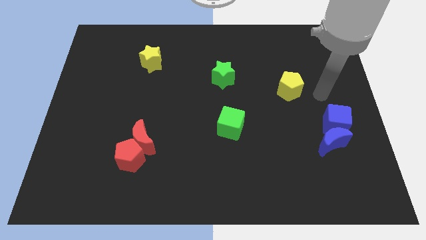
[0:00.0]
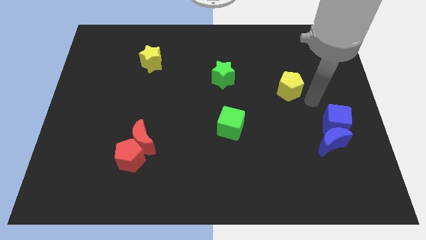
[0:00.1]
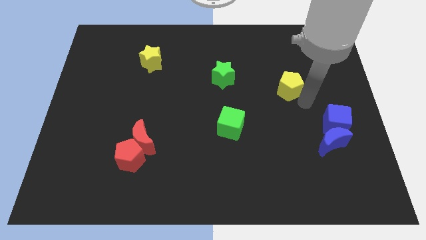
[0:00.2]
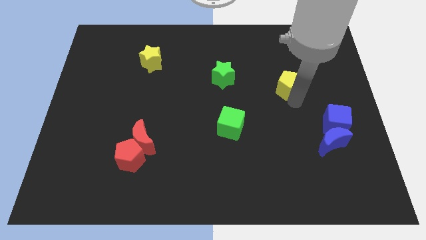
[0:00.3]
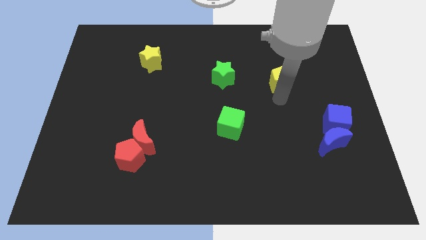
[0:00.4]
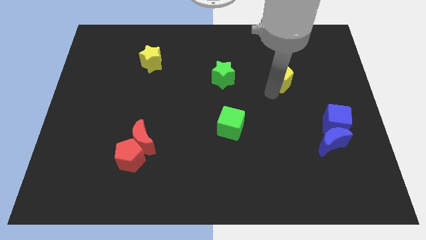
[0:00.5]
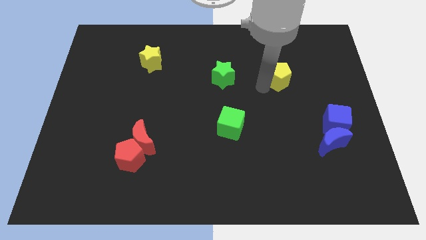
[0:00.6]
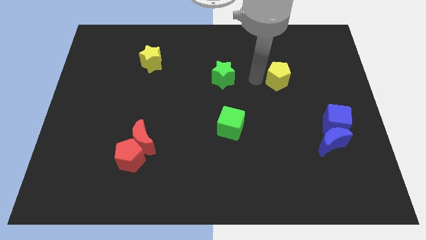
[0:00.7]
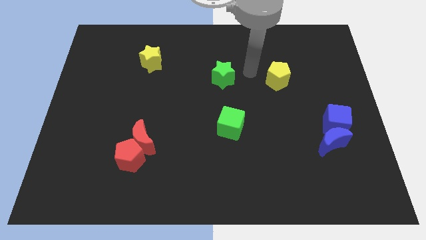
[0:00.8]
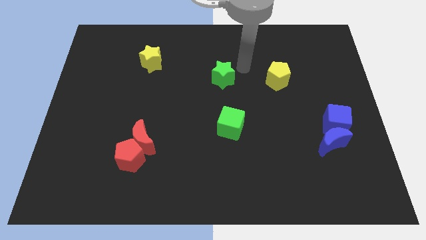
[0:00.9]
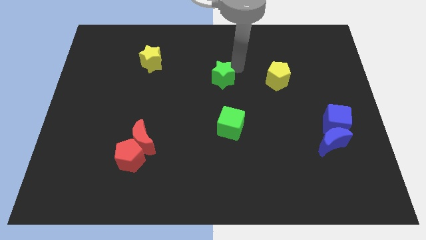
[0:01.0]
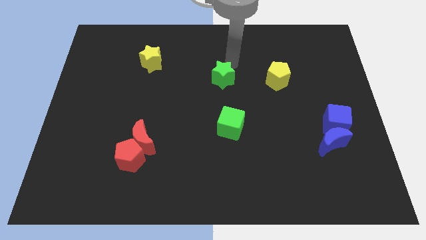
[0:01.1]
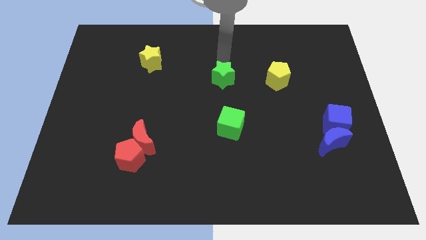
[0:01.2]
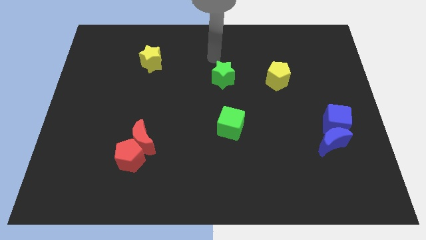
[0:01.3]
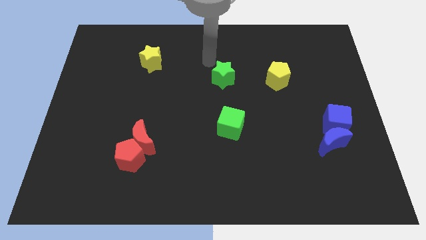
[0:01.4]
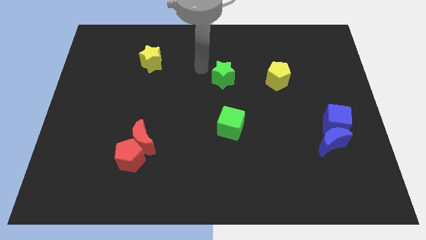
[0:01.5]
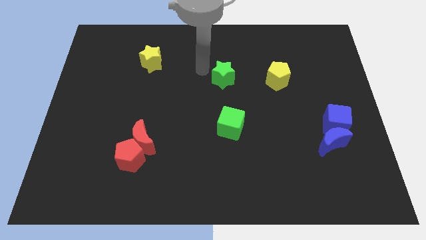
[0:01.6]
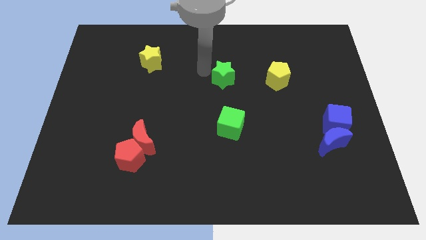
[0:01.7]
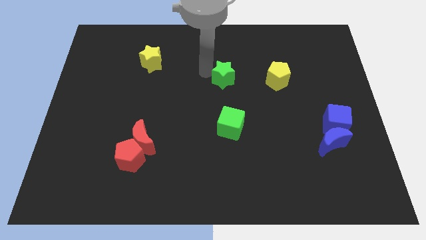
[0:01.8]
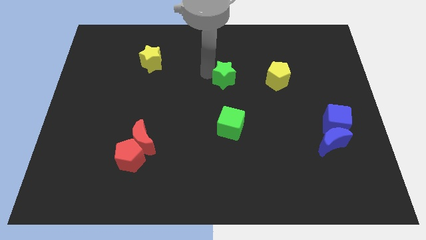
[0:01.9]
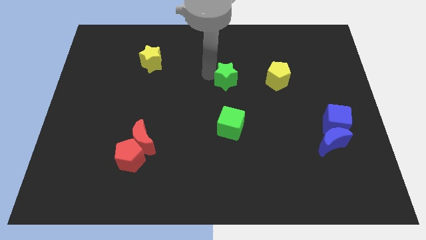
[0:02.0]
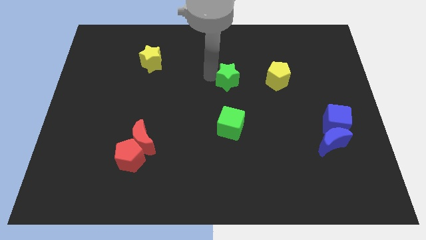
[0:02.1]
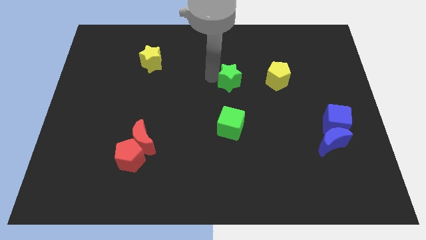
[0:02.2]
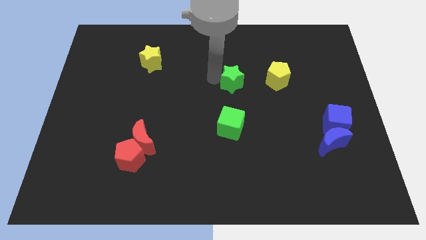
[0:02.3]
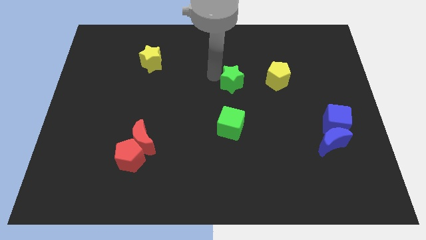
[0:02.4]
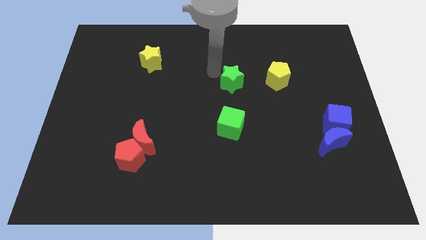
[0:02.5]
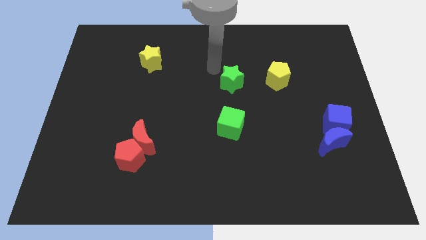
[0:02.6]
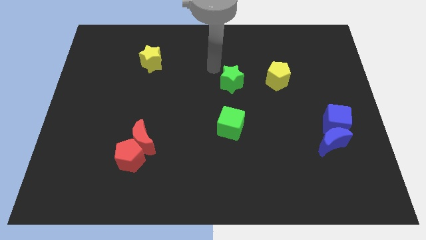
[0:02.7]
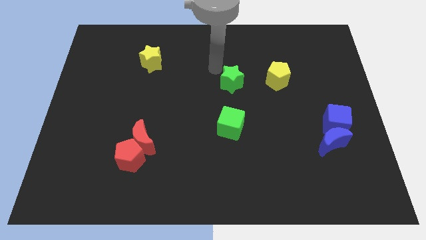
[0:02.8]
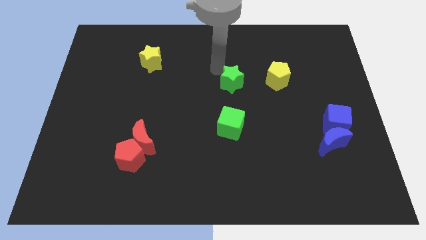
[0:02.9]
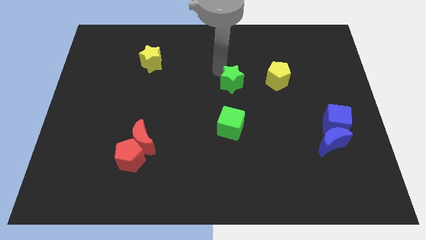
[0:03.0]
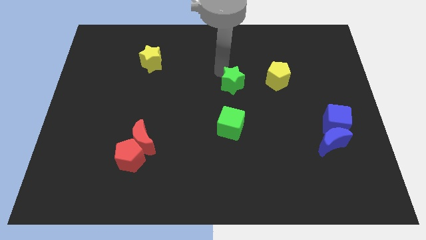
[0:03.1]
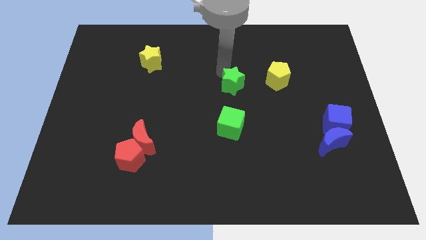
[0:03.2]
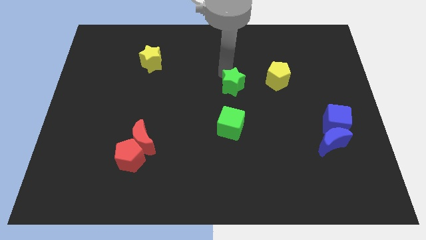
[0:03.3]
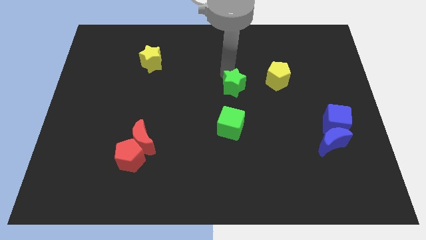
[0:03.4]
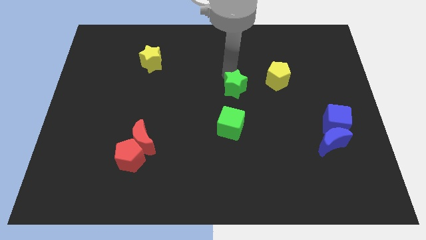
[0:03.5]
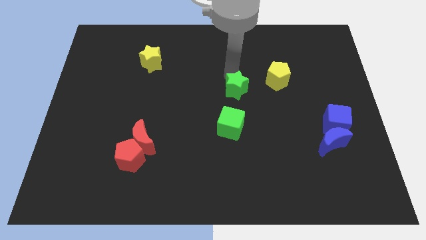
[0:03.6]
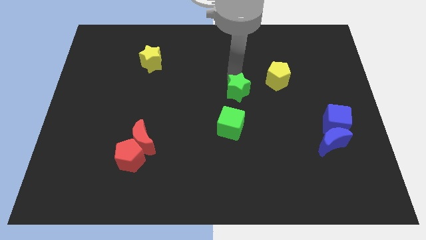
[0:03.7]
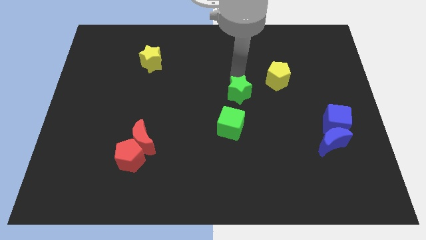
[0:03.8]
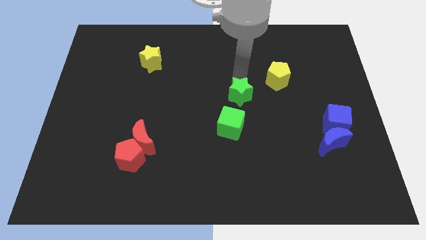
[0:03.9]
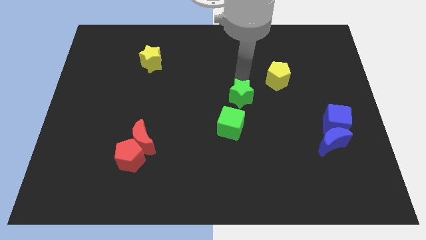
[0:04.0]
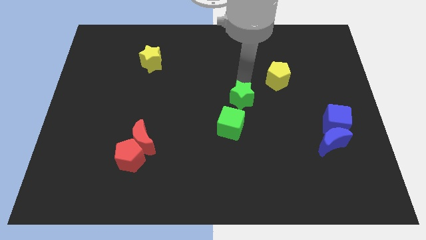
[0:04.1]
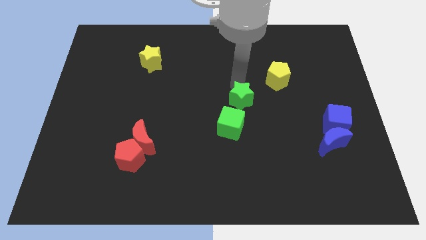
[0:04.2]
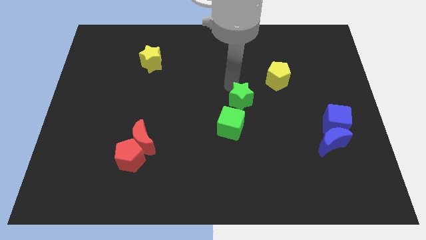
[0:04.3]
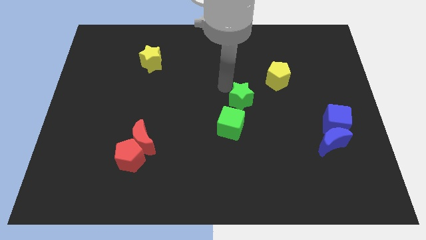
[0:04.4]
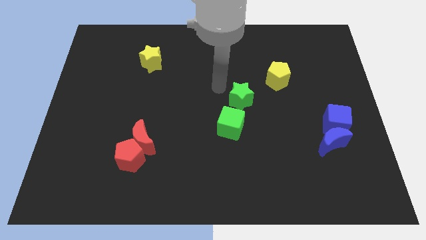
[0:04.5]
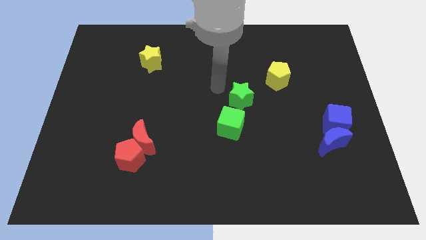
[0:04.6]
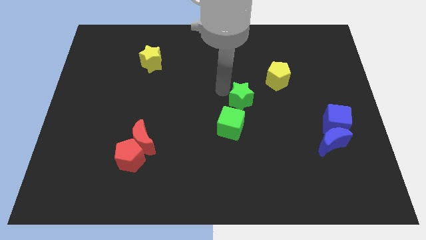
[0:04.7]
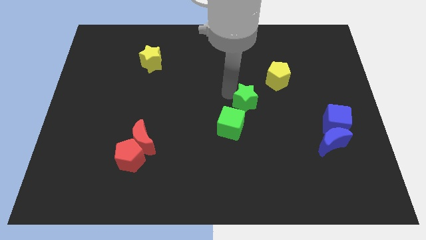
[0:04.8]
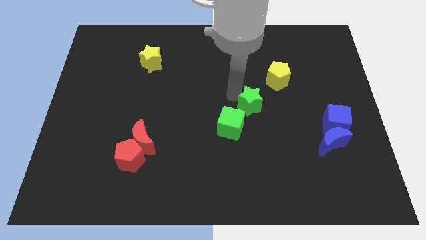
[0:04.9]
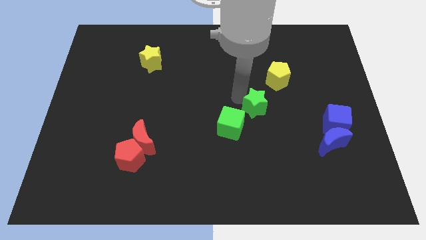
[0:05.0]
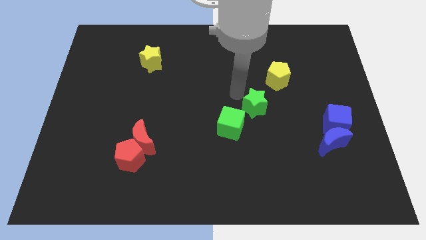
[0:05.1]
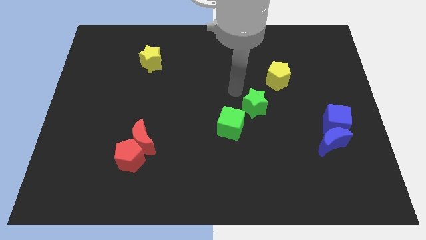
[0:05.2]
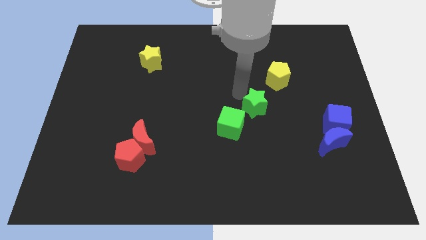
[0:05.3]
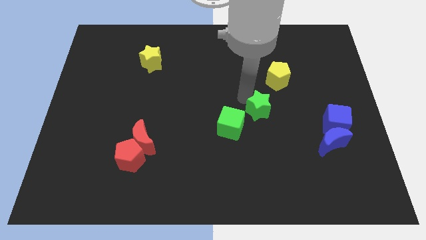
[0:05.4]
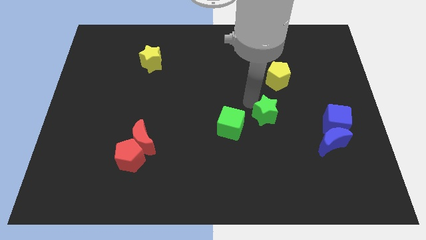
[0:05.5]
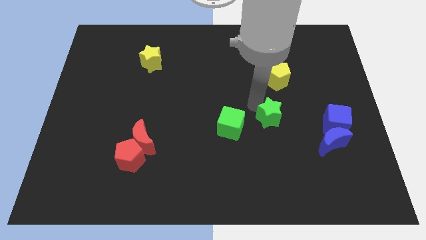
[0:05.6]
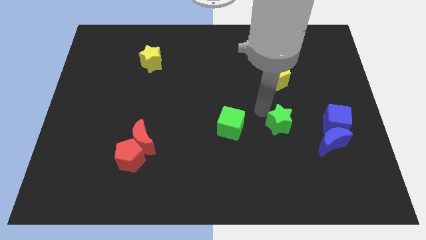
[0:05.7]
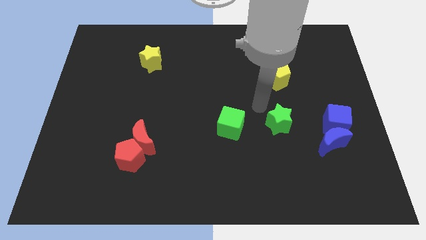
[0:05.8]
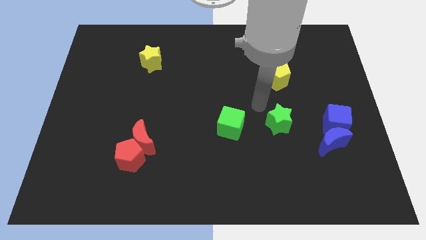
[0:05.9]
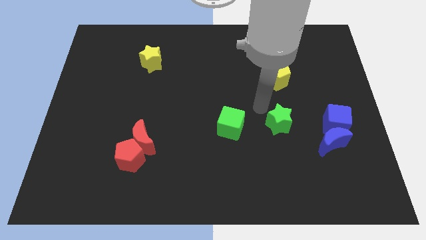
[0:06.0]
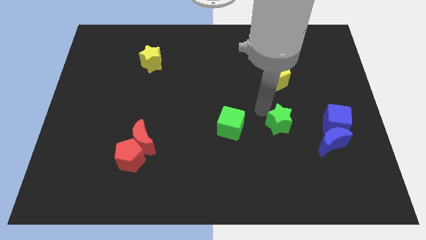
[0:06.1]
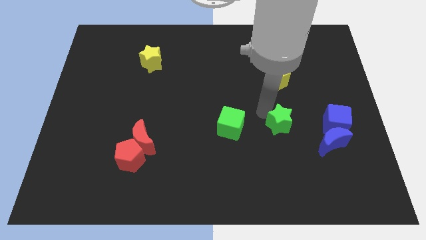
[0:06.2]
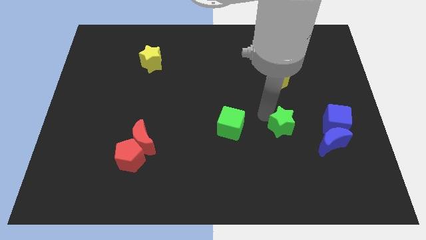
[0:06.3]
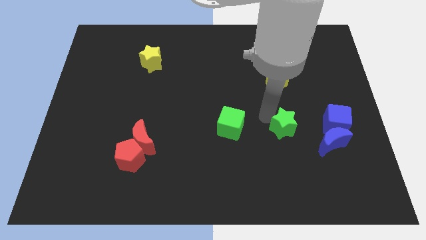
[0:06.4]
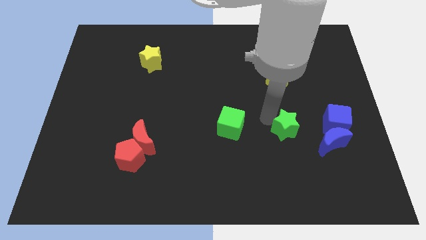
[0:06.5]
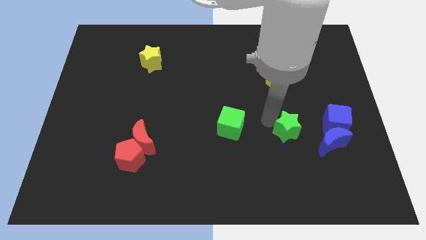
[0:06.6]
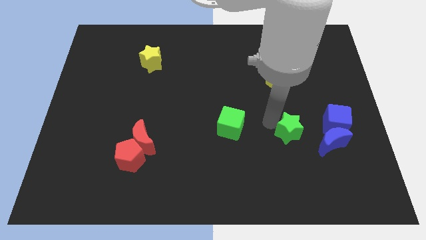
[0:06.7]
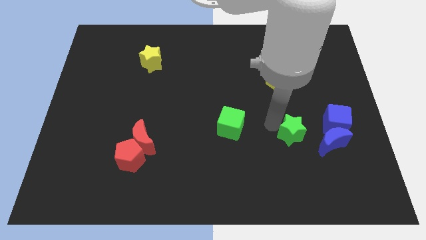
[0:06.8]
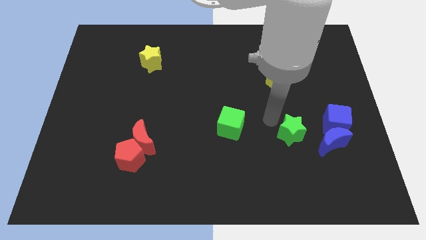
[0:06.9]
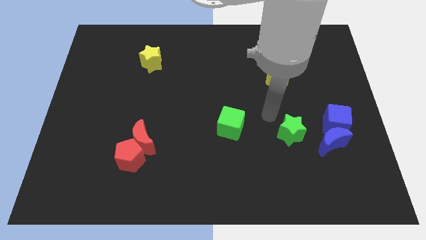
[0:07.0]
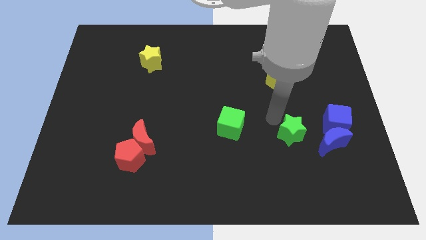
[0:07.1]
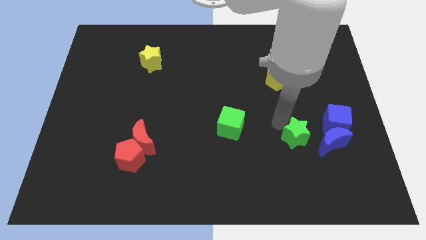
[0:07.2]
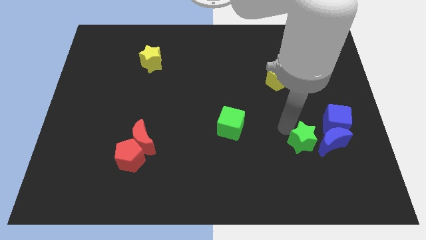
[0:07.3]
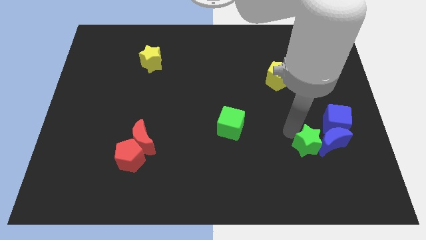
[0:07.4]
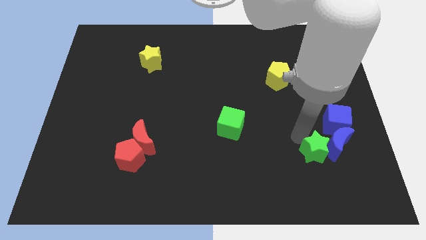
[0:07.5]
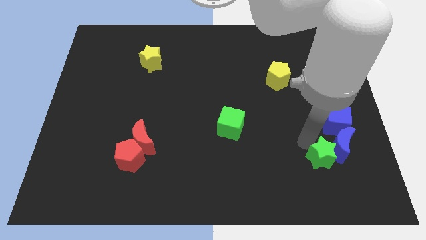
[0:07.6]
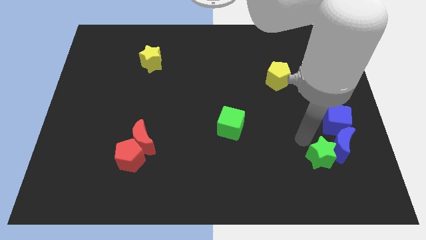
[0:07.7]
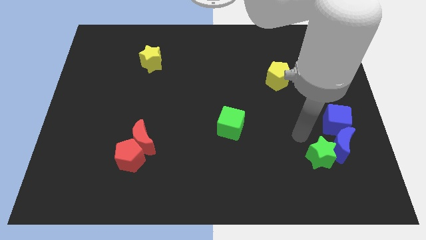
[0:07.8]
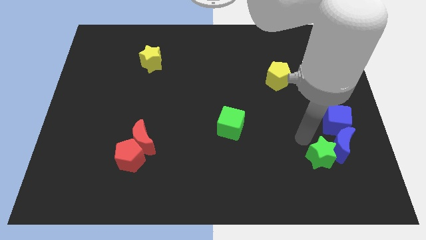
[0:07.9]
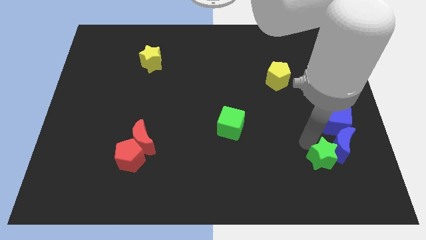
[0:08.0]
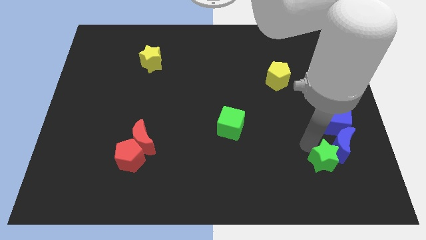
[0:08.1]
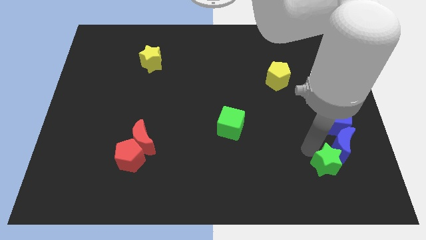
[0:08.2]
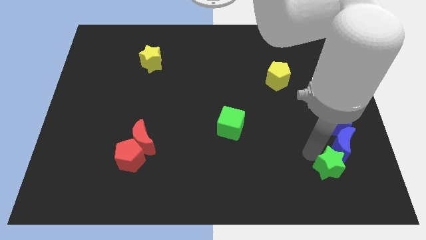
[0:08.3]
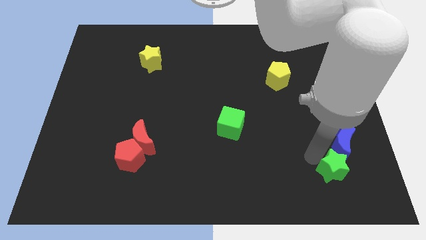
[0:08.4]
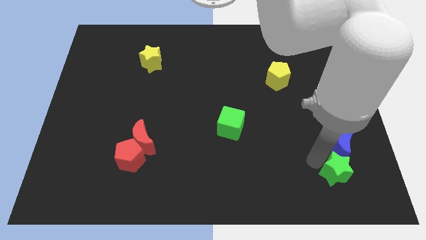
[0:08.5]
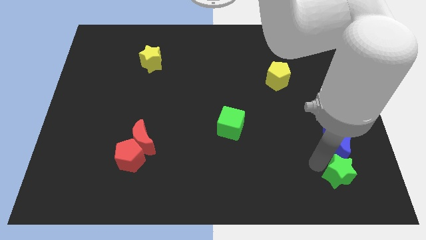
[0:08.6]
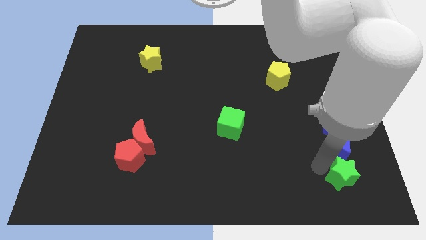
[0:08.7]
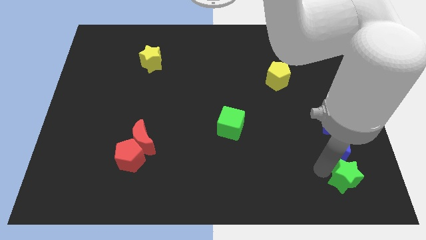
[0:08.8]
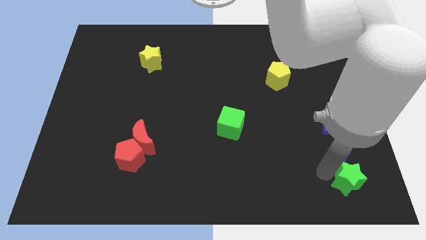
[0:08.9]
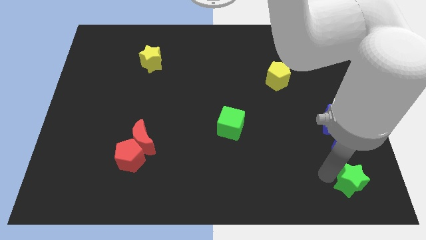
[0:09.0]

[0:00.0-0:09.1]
put the green star to the bottom right
